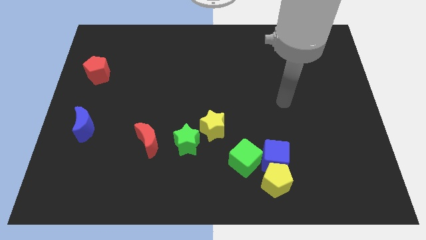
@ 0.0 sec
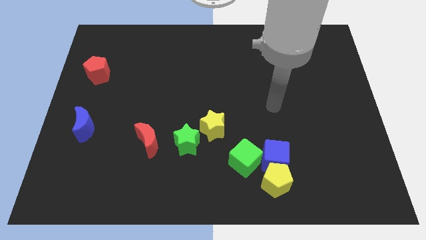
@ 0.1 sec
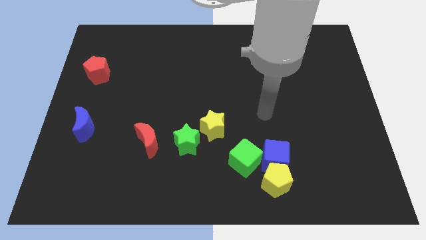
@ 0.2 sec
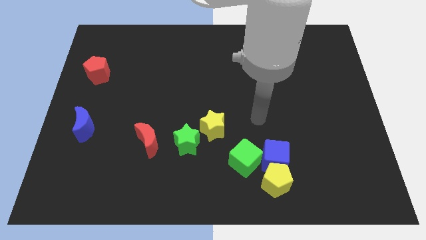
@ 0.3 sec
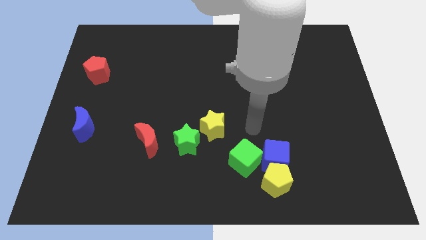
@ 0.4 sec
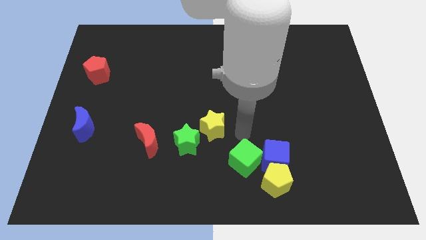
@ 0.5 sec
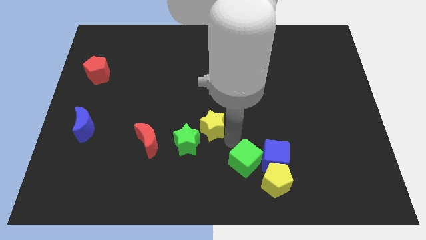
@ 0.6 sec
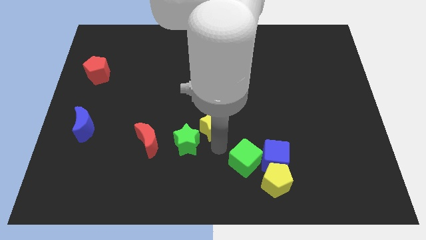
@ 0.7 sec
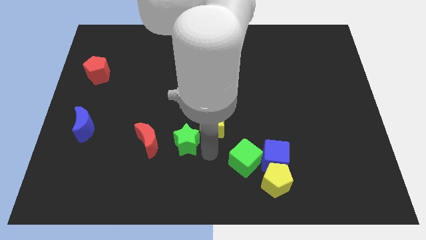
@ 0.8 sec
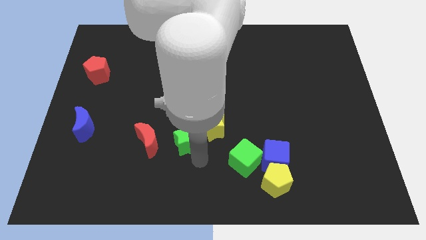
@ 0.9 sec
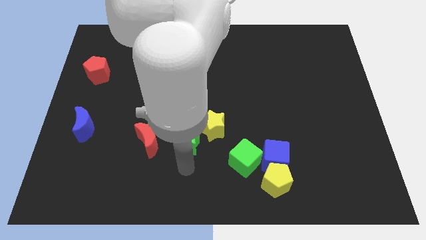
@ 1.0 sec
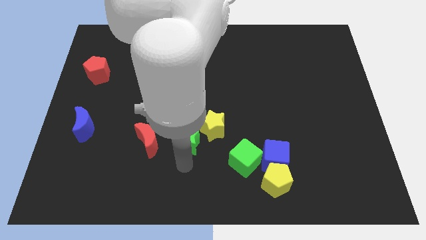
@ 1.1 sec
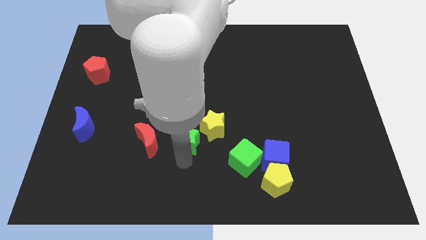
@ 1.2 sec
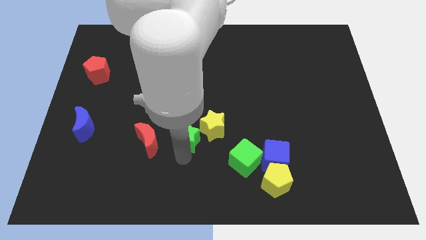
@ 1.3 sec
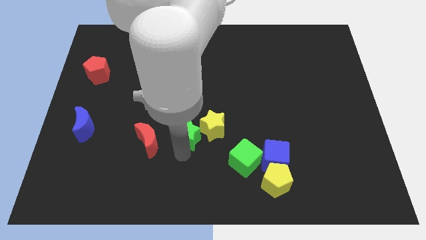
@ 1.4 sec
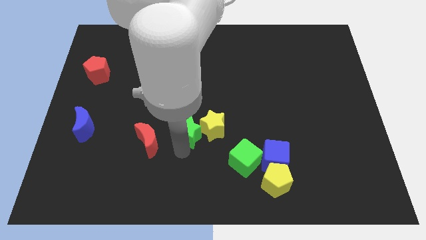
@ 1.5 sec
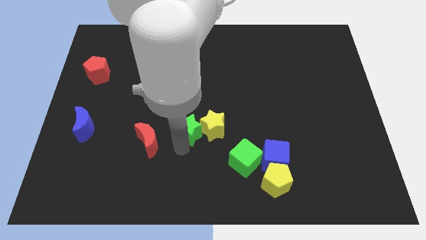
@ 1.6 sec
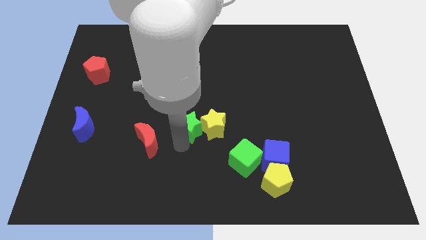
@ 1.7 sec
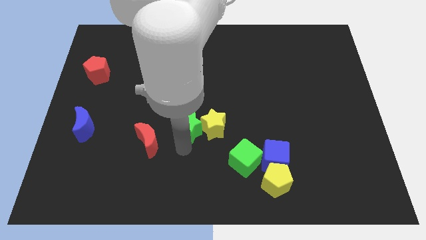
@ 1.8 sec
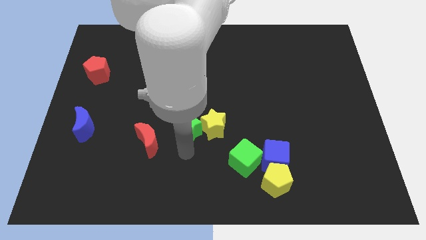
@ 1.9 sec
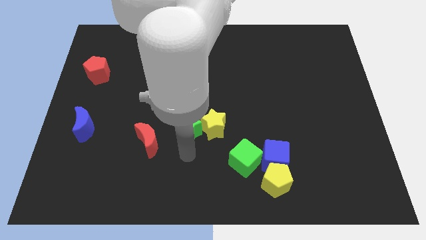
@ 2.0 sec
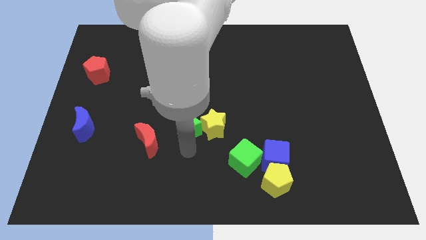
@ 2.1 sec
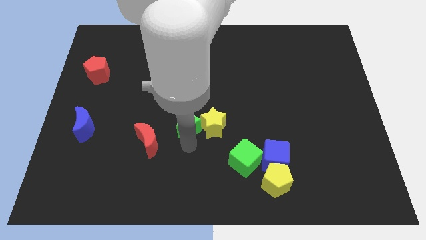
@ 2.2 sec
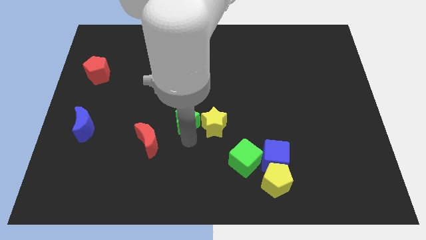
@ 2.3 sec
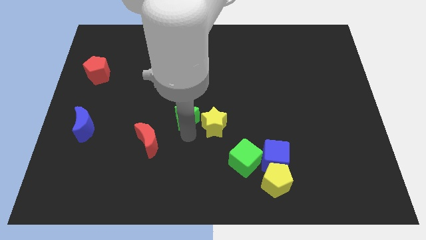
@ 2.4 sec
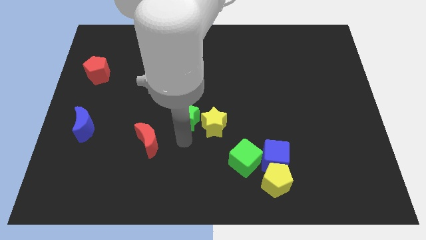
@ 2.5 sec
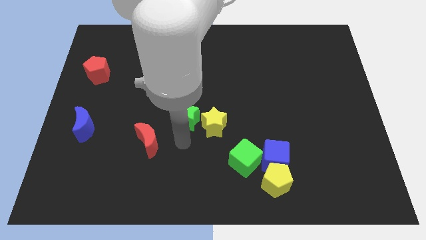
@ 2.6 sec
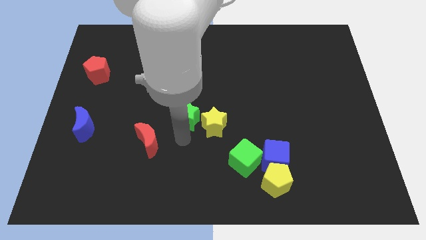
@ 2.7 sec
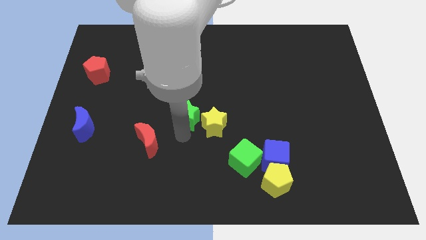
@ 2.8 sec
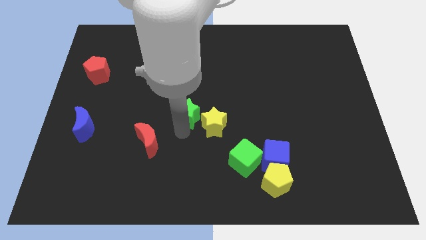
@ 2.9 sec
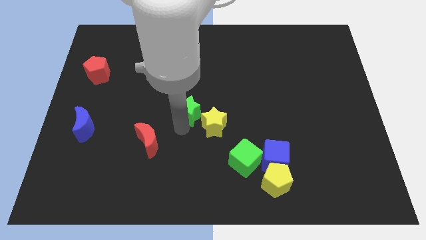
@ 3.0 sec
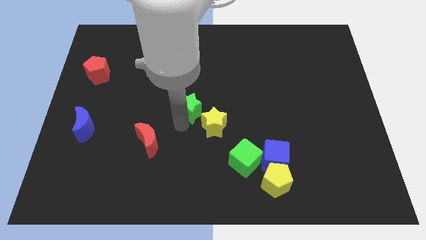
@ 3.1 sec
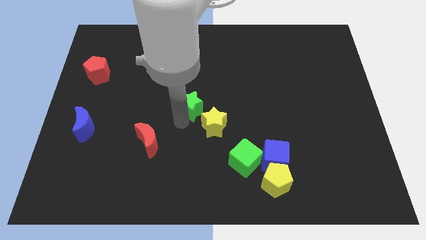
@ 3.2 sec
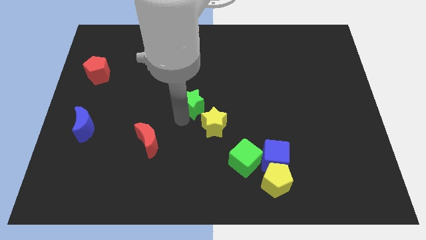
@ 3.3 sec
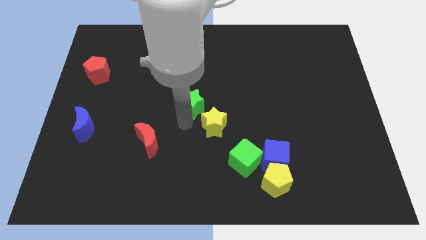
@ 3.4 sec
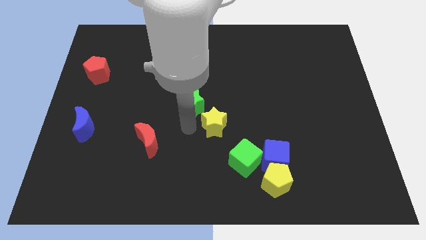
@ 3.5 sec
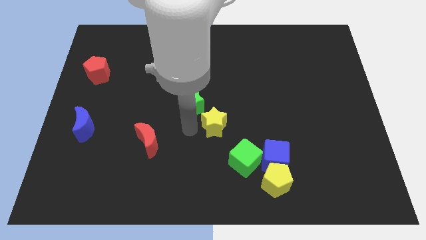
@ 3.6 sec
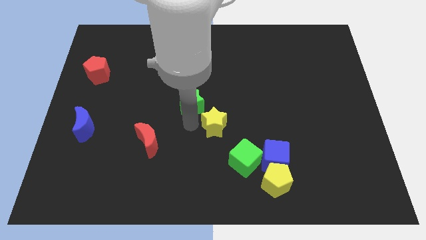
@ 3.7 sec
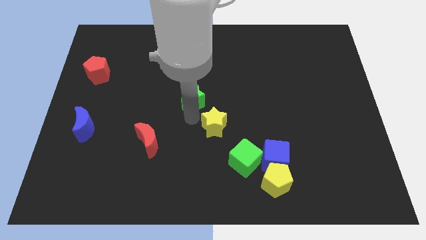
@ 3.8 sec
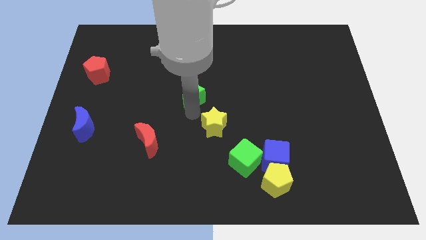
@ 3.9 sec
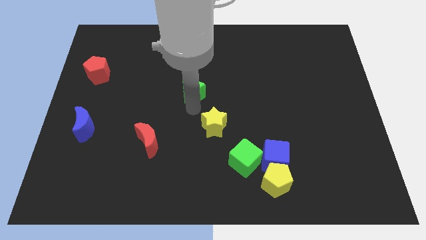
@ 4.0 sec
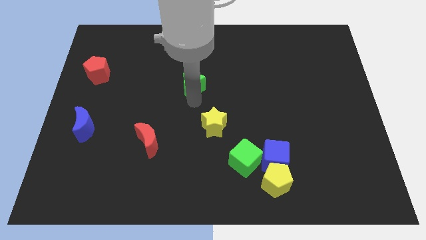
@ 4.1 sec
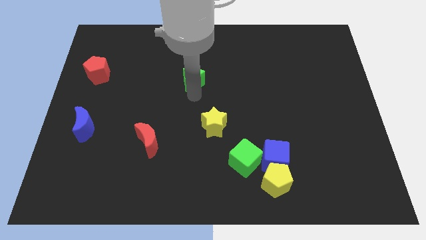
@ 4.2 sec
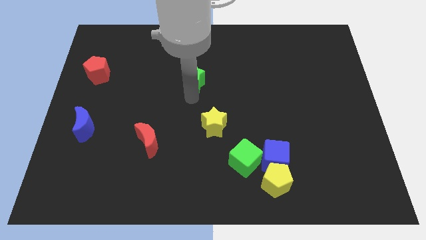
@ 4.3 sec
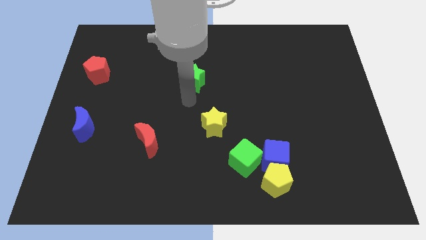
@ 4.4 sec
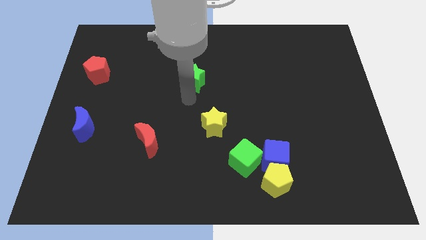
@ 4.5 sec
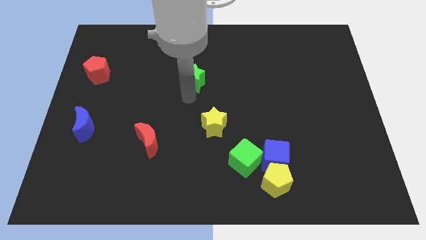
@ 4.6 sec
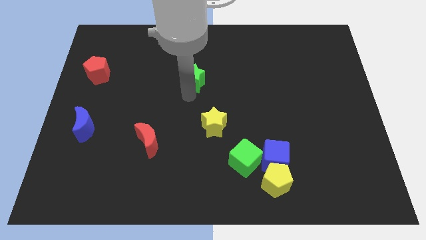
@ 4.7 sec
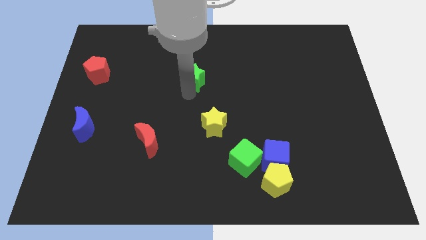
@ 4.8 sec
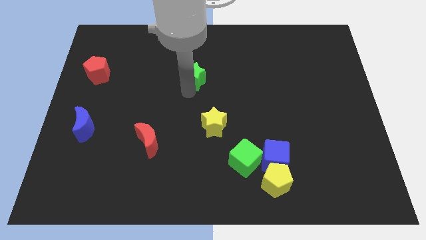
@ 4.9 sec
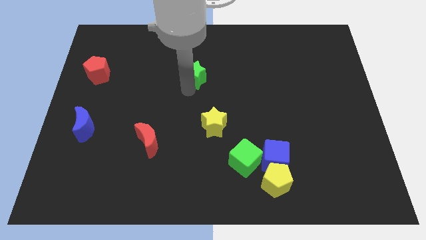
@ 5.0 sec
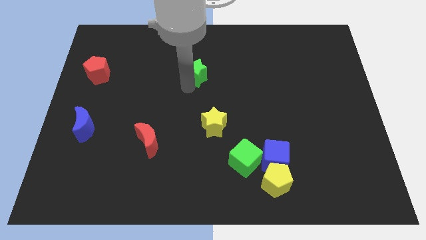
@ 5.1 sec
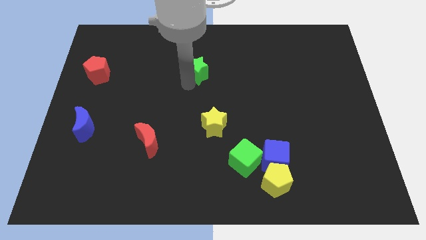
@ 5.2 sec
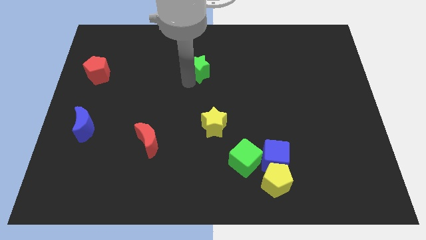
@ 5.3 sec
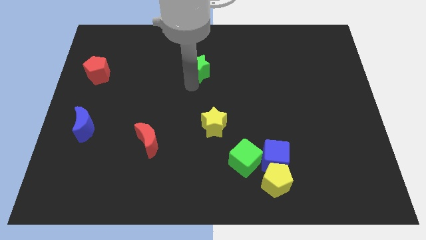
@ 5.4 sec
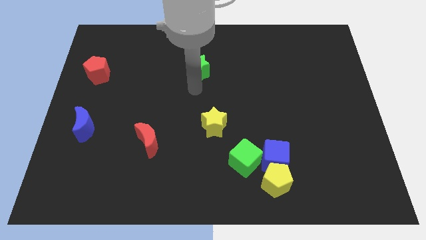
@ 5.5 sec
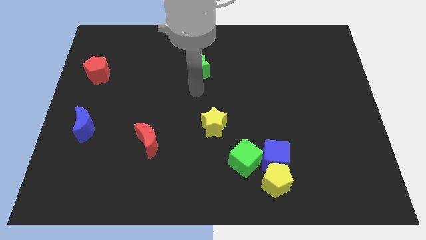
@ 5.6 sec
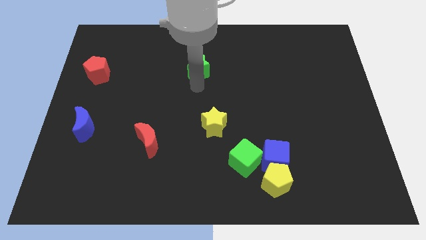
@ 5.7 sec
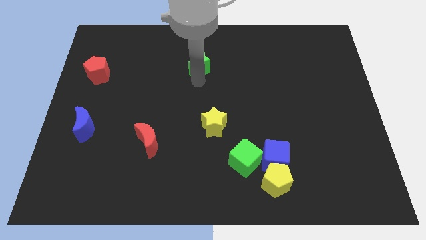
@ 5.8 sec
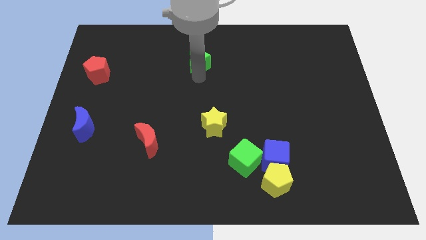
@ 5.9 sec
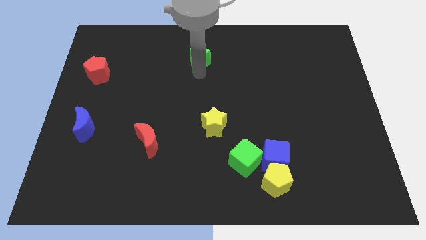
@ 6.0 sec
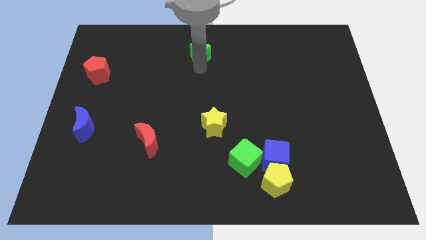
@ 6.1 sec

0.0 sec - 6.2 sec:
put the green star to the towards your base
